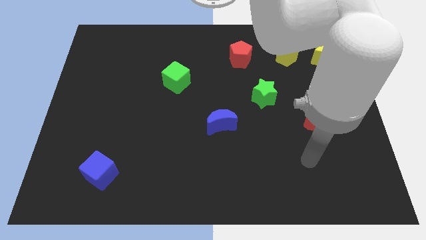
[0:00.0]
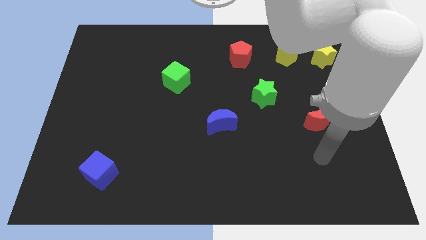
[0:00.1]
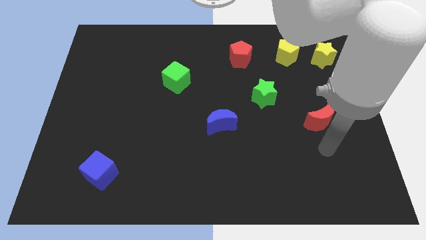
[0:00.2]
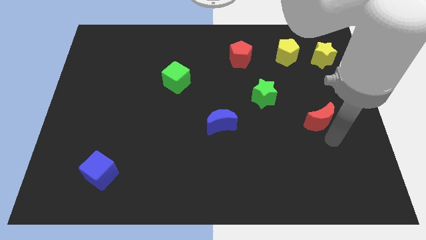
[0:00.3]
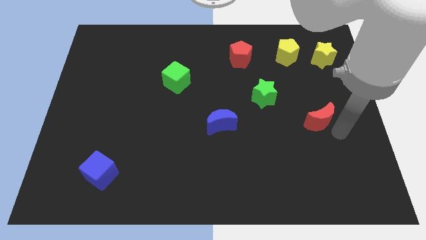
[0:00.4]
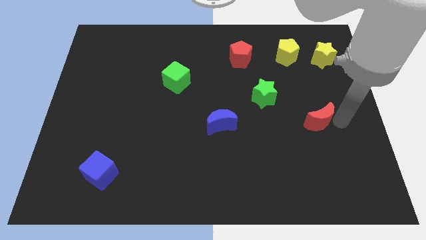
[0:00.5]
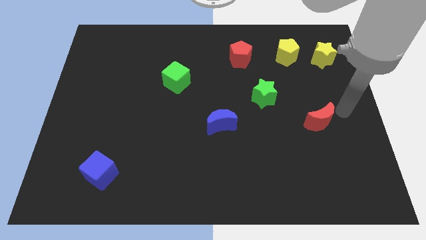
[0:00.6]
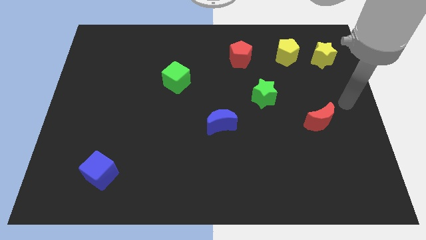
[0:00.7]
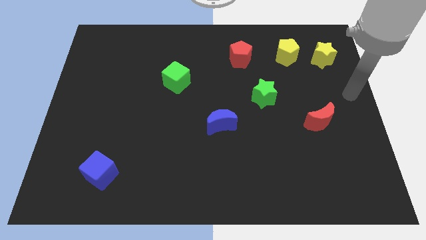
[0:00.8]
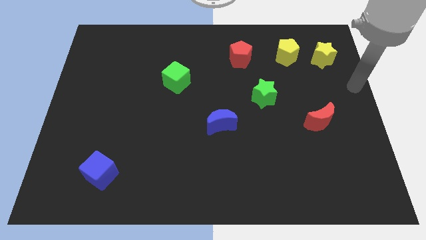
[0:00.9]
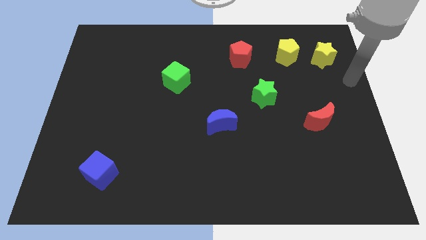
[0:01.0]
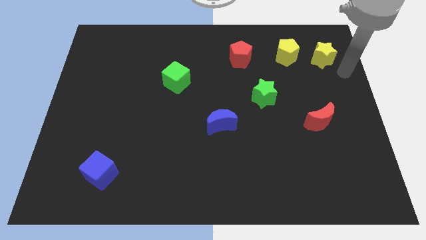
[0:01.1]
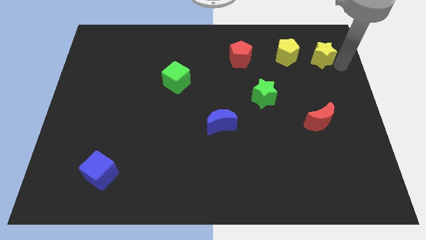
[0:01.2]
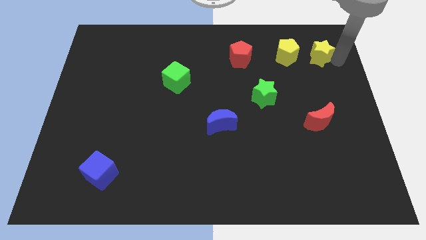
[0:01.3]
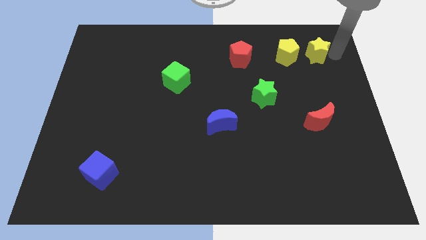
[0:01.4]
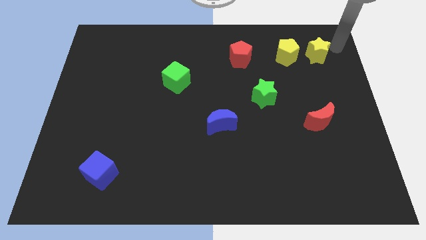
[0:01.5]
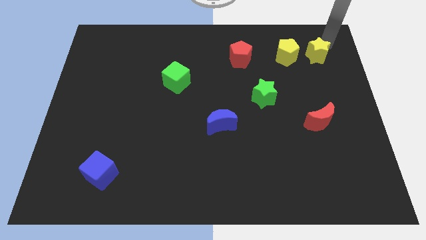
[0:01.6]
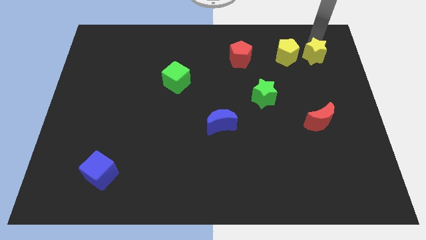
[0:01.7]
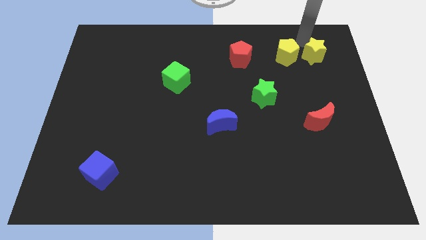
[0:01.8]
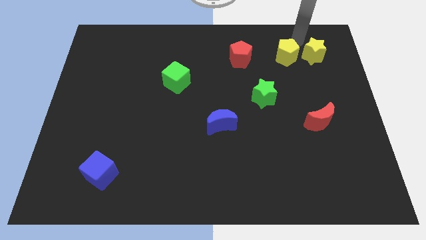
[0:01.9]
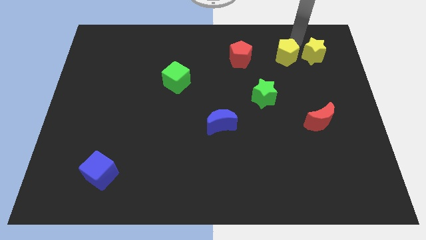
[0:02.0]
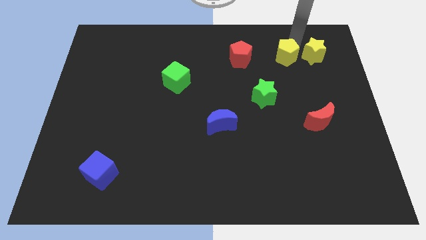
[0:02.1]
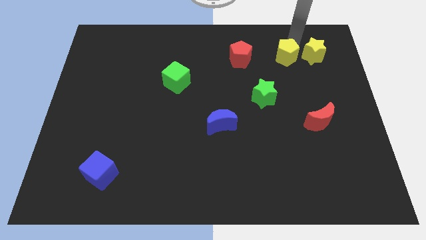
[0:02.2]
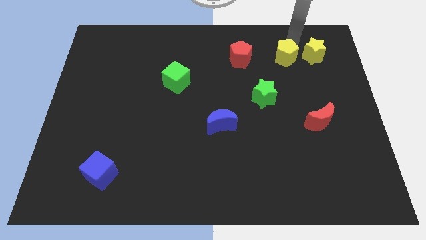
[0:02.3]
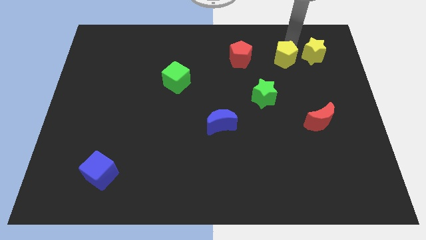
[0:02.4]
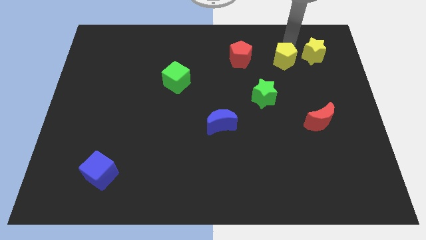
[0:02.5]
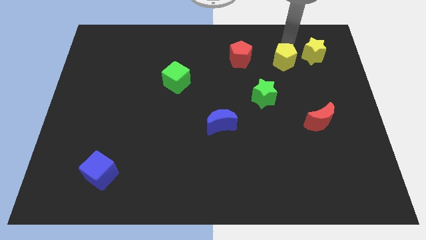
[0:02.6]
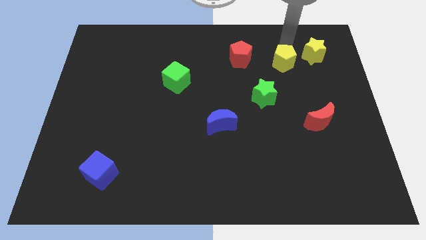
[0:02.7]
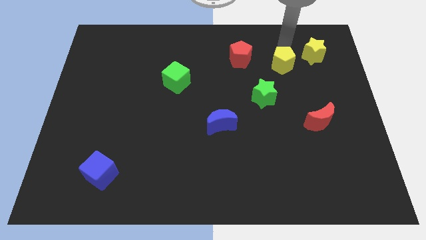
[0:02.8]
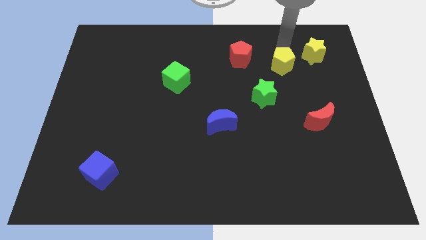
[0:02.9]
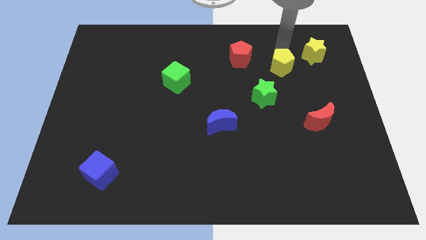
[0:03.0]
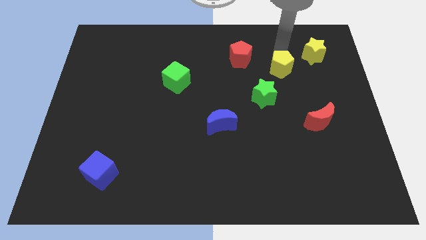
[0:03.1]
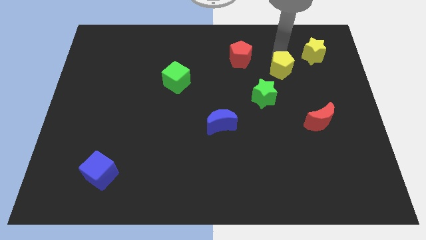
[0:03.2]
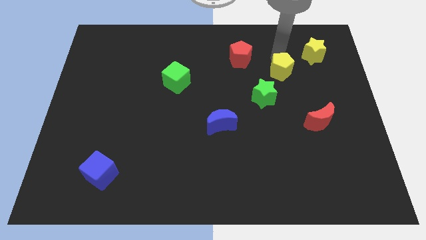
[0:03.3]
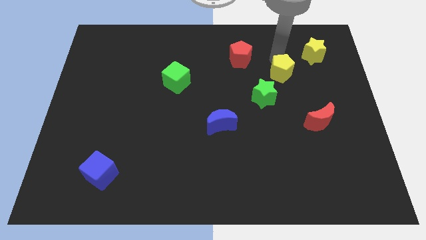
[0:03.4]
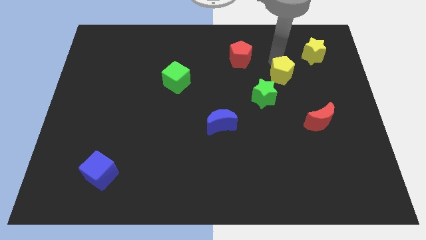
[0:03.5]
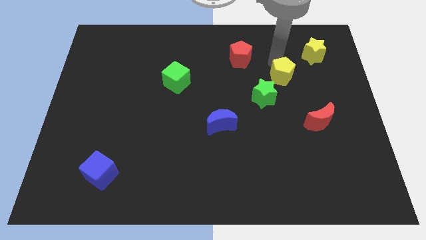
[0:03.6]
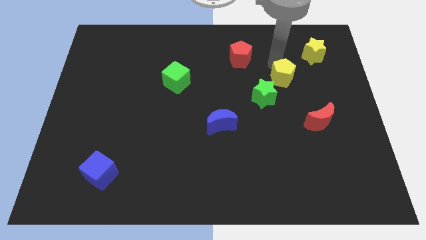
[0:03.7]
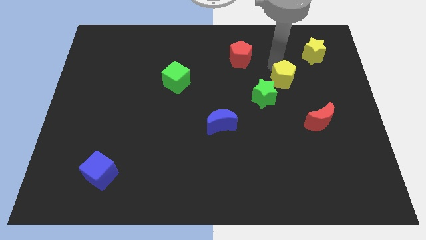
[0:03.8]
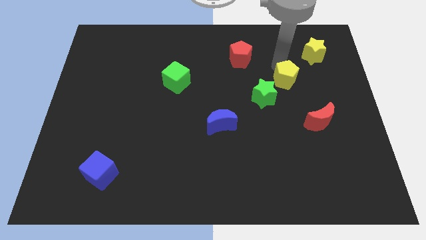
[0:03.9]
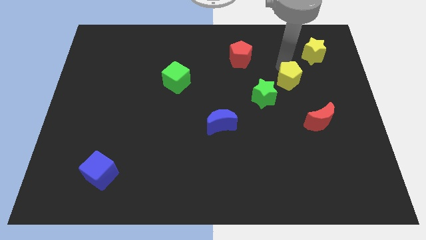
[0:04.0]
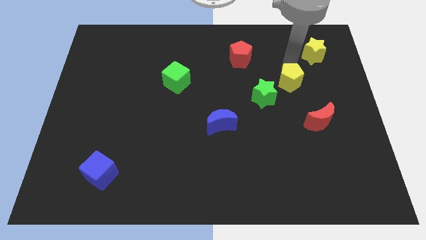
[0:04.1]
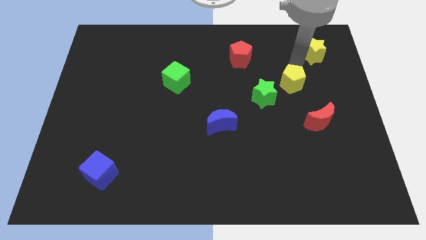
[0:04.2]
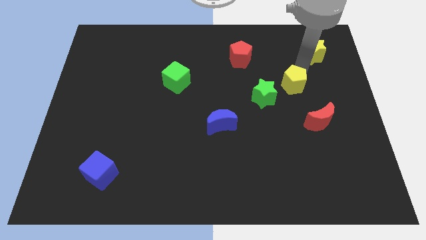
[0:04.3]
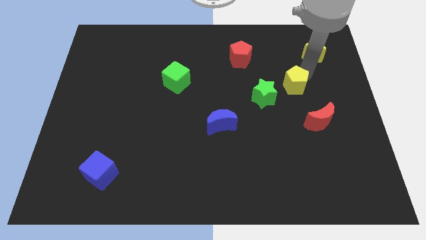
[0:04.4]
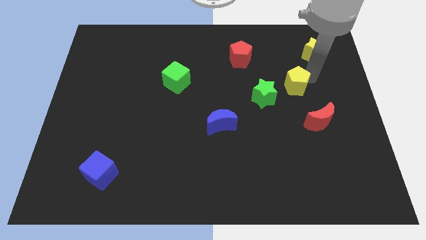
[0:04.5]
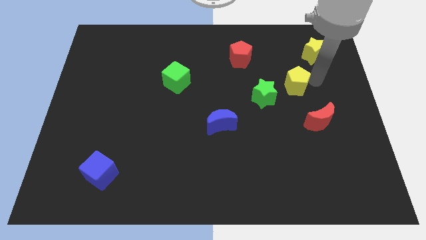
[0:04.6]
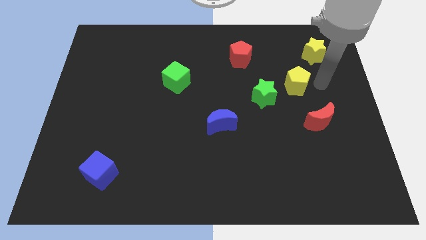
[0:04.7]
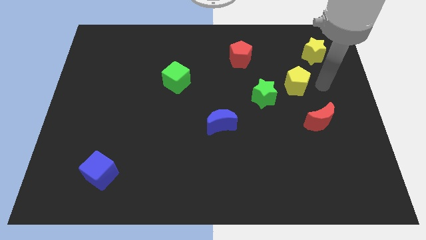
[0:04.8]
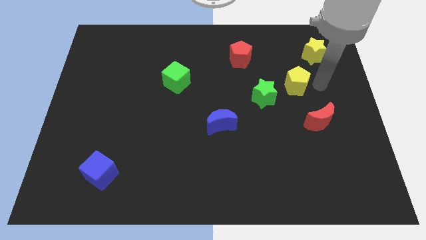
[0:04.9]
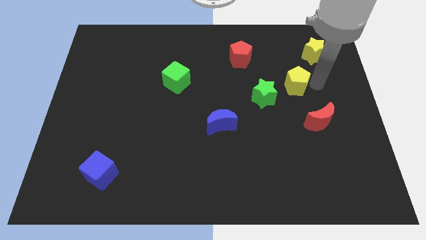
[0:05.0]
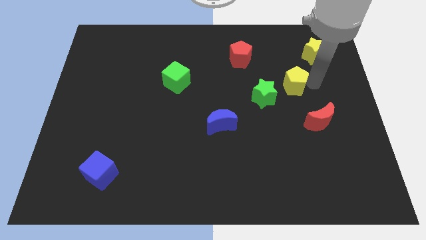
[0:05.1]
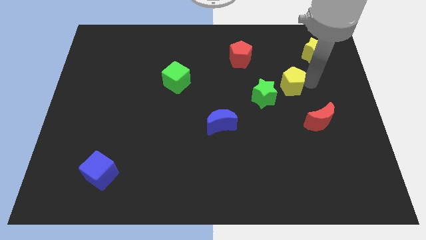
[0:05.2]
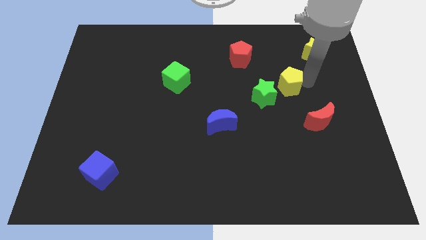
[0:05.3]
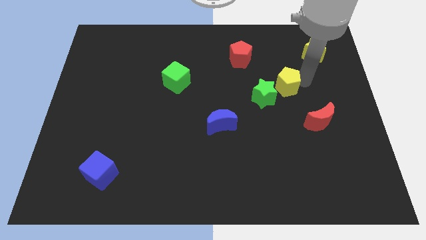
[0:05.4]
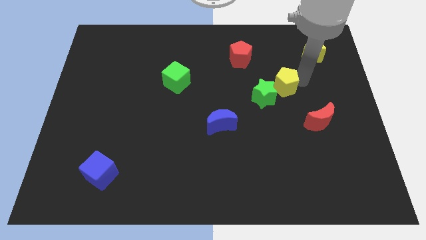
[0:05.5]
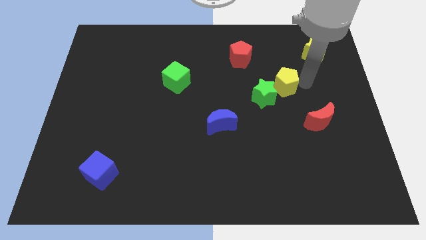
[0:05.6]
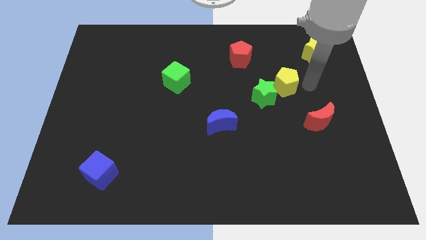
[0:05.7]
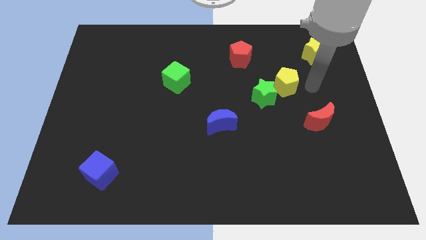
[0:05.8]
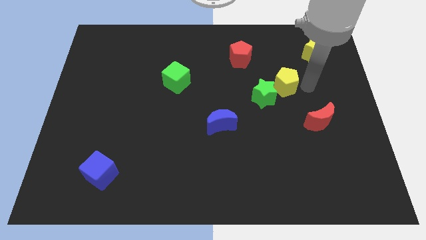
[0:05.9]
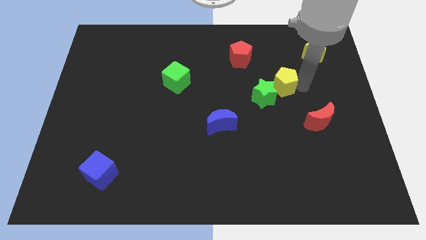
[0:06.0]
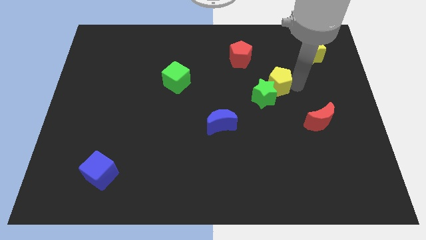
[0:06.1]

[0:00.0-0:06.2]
move the yellow pentagon next to the green star
